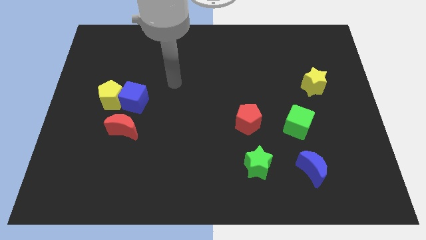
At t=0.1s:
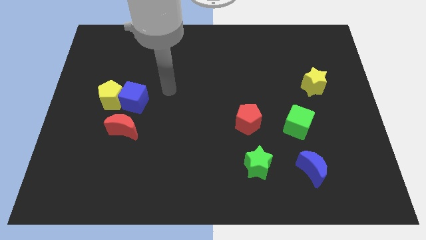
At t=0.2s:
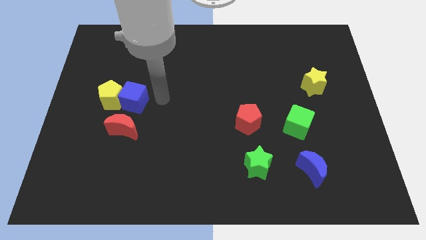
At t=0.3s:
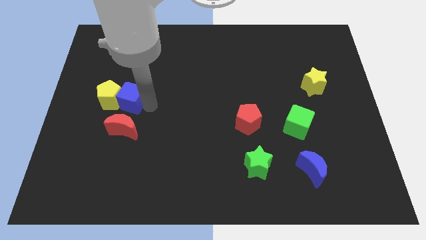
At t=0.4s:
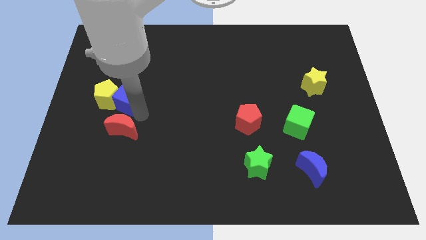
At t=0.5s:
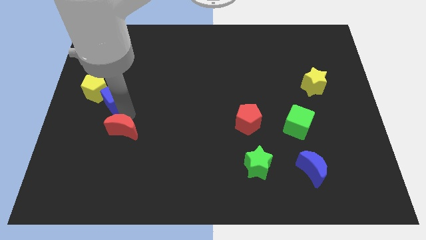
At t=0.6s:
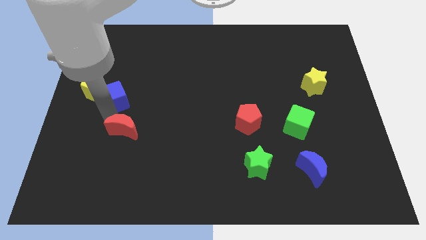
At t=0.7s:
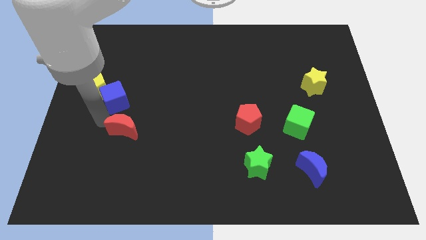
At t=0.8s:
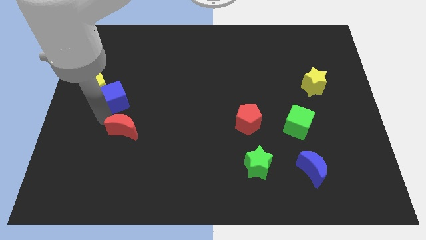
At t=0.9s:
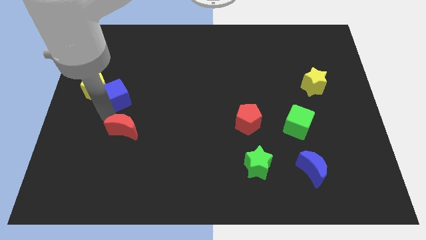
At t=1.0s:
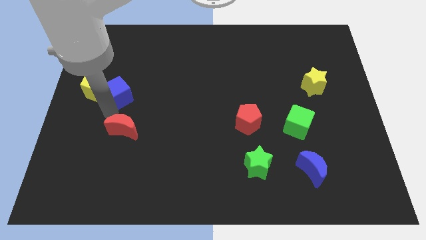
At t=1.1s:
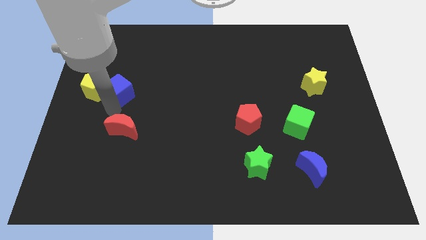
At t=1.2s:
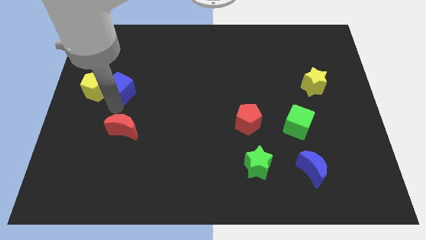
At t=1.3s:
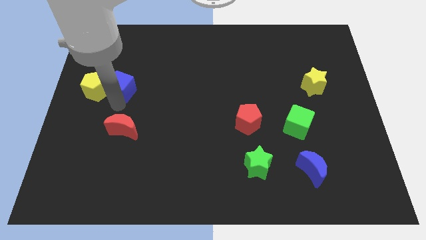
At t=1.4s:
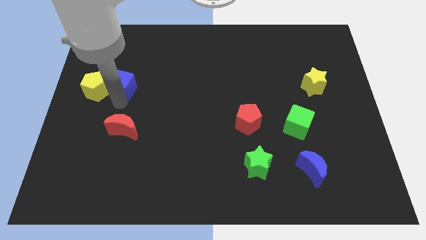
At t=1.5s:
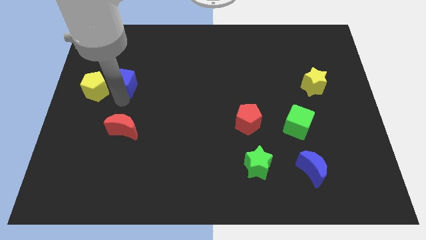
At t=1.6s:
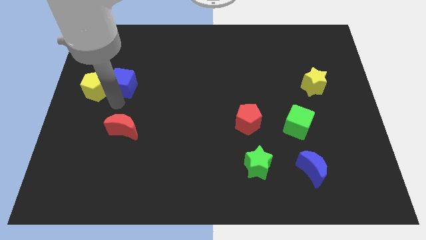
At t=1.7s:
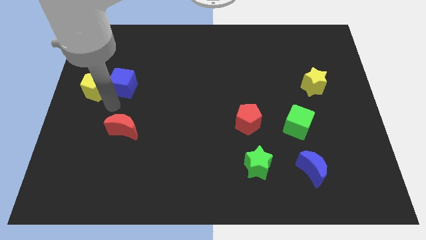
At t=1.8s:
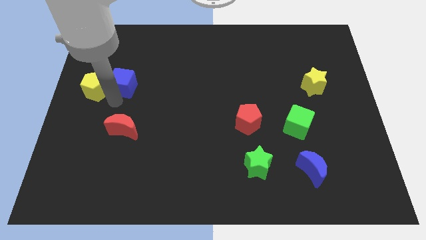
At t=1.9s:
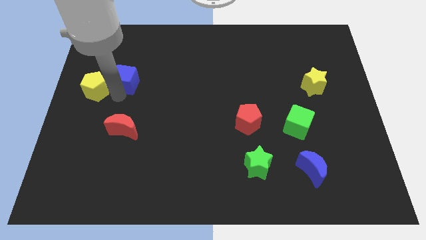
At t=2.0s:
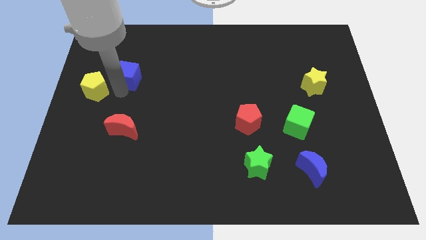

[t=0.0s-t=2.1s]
separate the blue cube from the yellow pentagon and red moon

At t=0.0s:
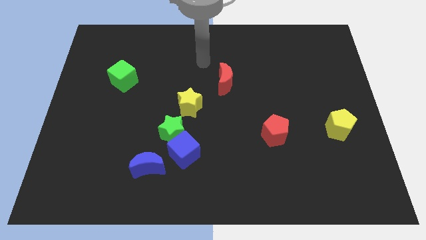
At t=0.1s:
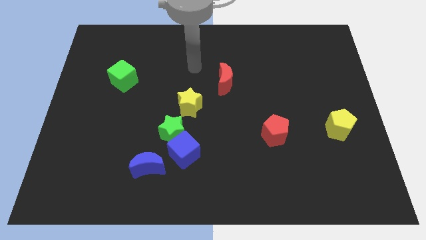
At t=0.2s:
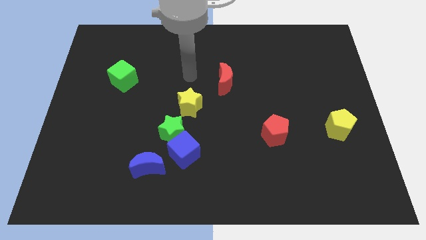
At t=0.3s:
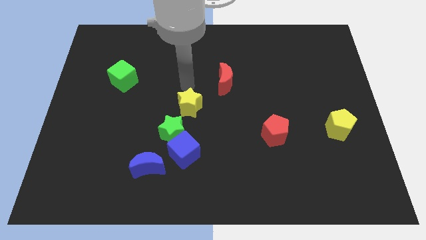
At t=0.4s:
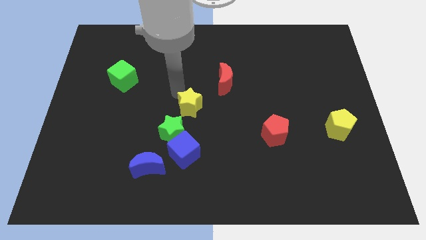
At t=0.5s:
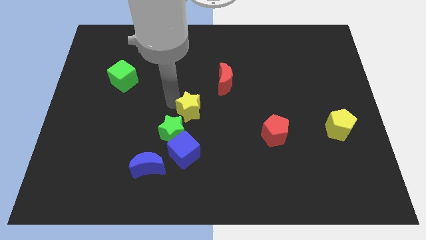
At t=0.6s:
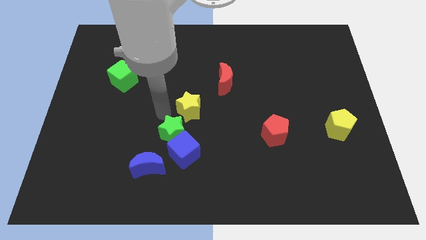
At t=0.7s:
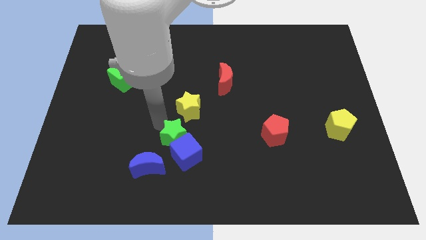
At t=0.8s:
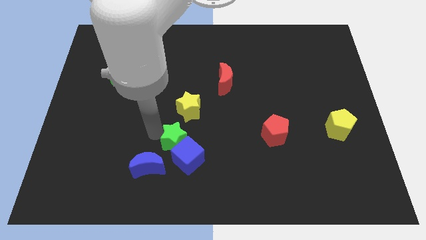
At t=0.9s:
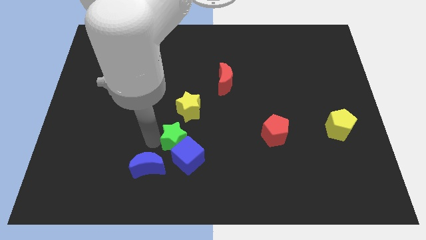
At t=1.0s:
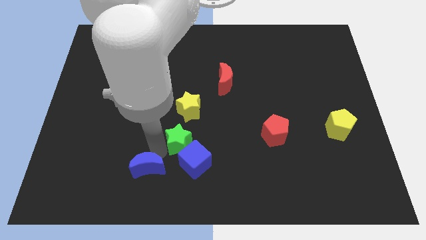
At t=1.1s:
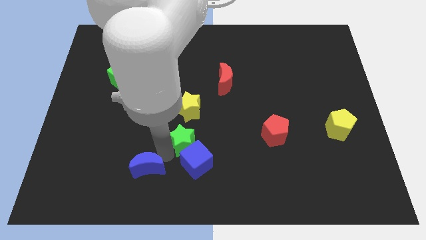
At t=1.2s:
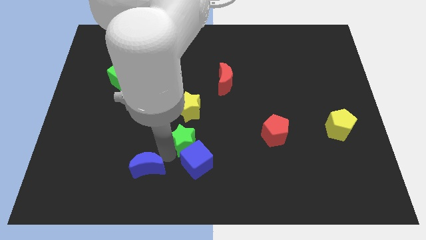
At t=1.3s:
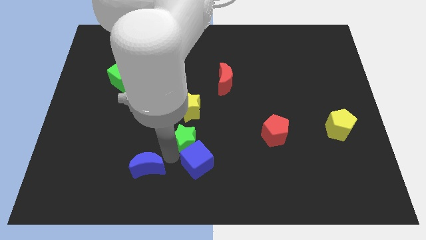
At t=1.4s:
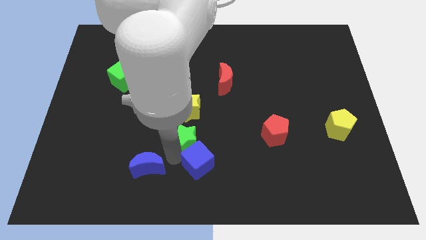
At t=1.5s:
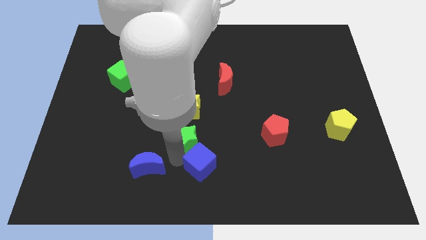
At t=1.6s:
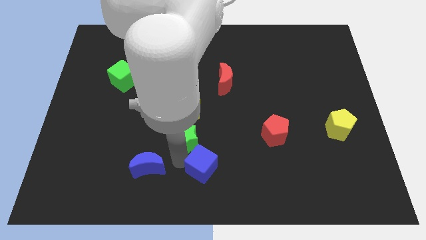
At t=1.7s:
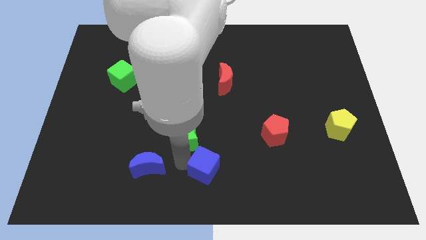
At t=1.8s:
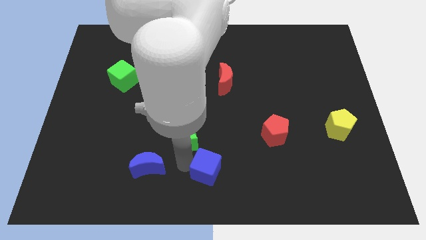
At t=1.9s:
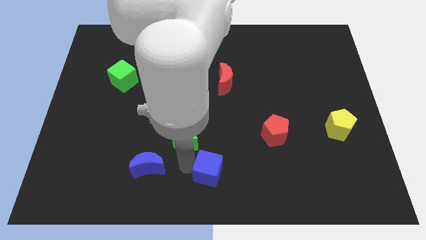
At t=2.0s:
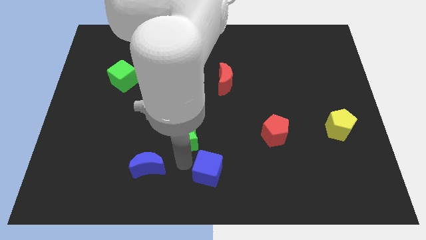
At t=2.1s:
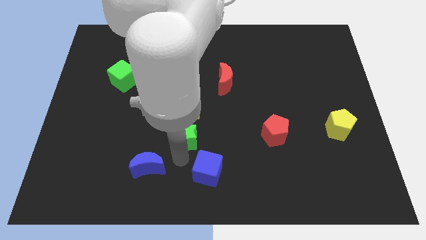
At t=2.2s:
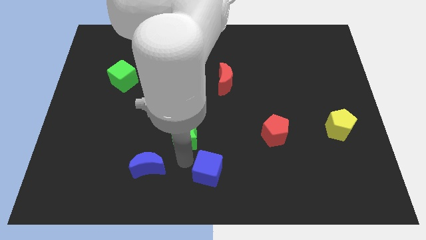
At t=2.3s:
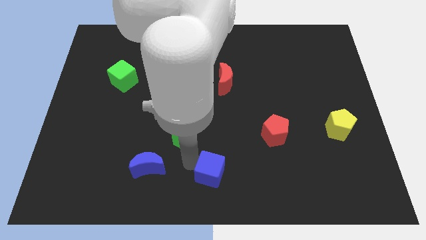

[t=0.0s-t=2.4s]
pull the blue cube apart from the green star and blue moon

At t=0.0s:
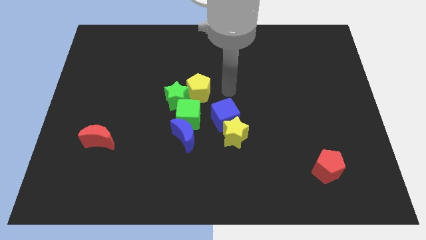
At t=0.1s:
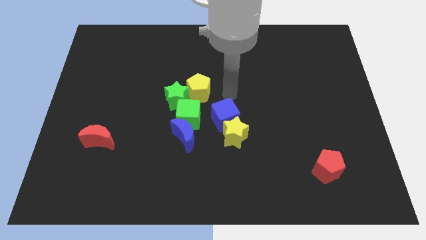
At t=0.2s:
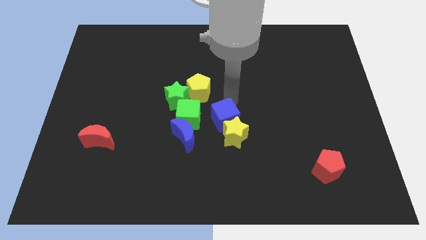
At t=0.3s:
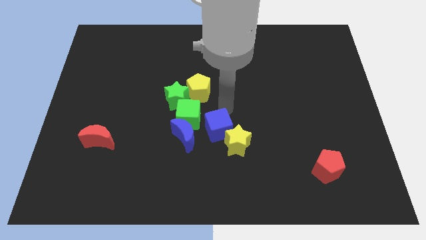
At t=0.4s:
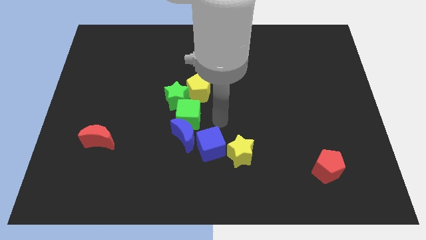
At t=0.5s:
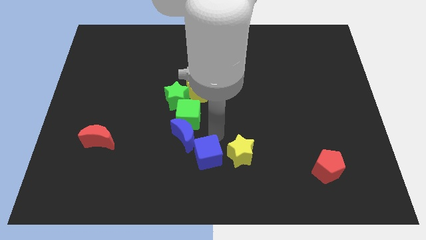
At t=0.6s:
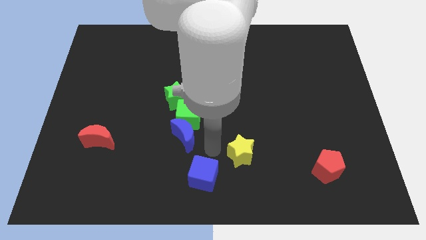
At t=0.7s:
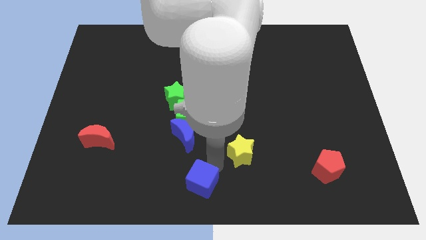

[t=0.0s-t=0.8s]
move the yellow star away from the blue cube

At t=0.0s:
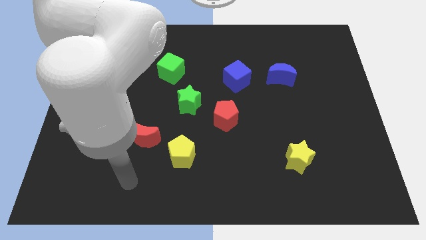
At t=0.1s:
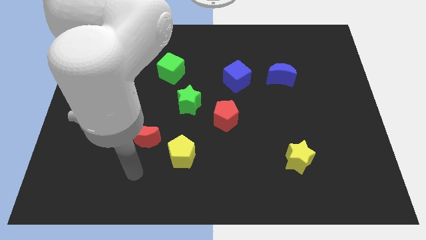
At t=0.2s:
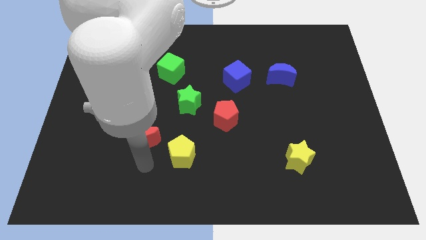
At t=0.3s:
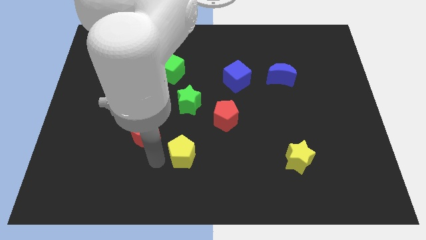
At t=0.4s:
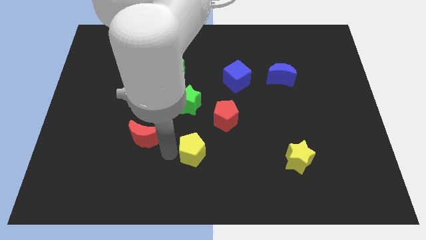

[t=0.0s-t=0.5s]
move the red moon away from the yellow pentagon

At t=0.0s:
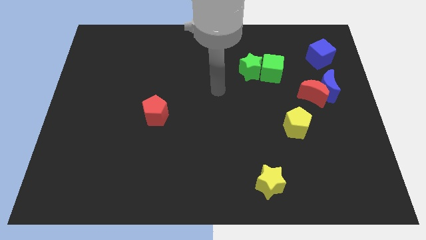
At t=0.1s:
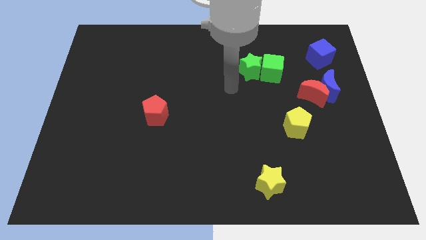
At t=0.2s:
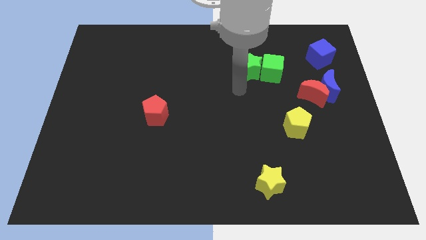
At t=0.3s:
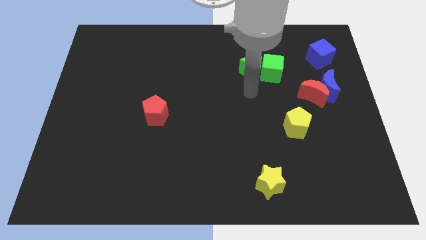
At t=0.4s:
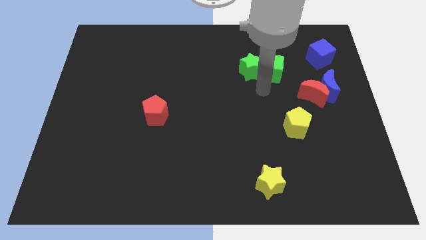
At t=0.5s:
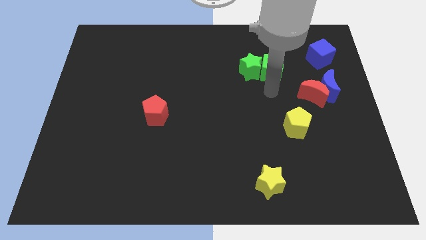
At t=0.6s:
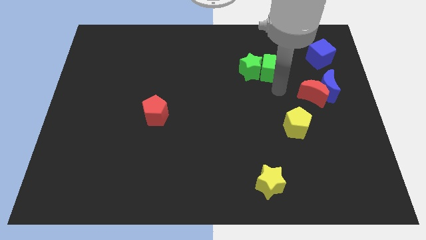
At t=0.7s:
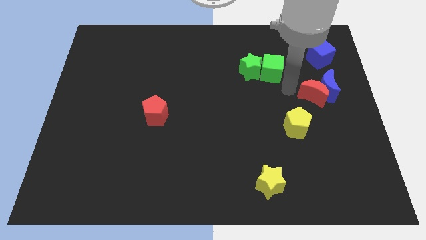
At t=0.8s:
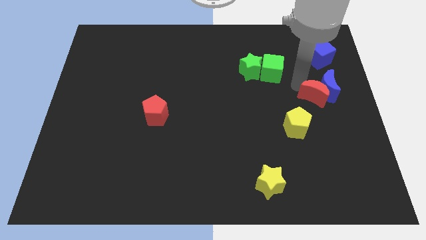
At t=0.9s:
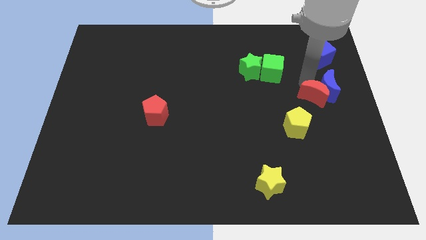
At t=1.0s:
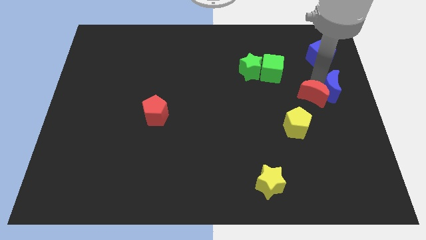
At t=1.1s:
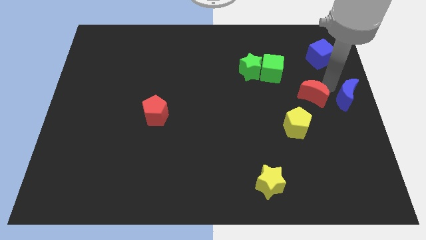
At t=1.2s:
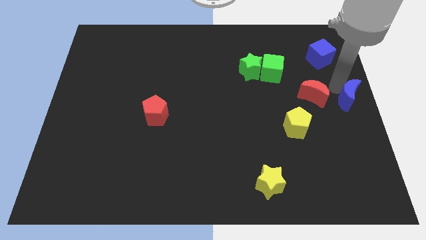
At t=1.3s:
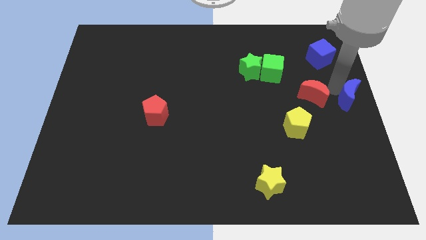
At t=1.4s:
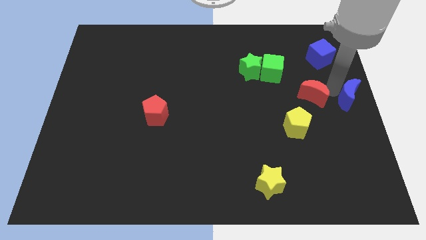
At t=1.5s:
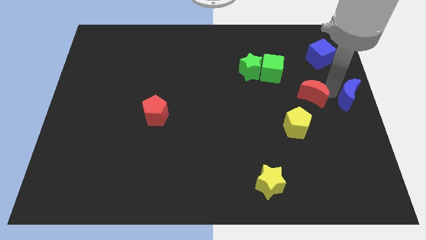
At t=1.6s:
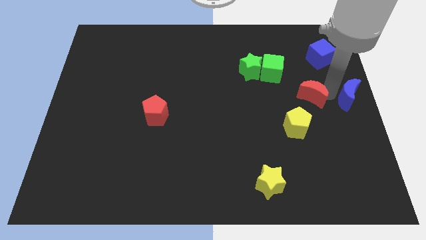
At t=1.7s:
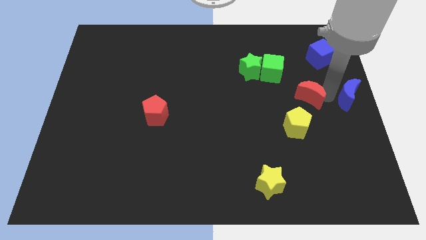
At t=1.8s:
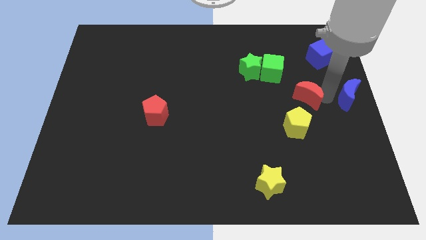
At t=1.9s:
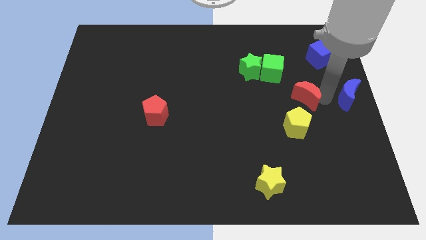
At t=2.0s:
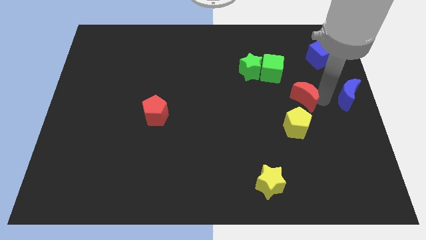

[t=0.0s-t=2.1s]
pull the red moon apart from the blue moon

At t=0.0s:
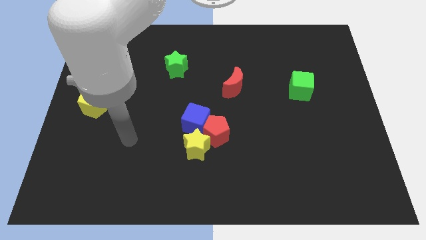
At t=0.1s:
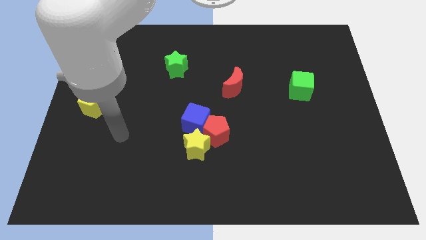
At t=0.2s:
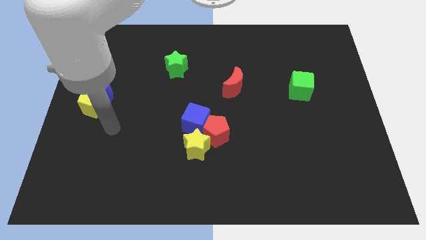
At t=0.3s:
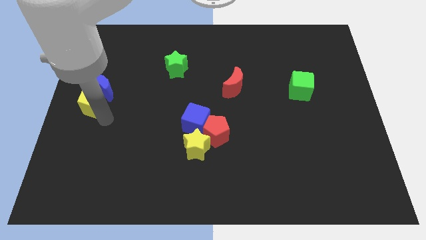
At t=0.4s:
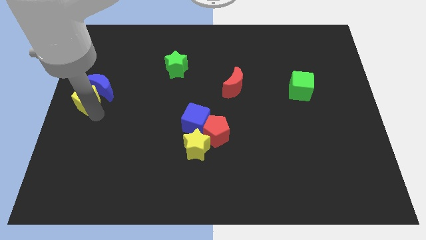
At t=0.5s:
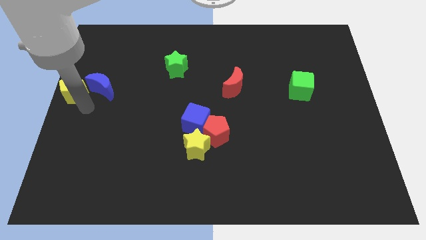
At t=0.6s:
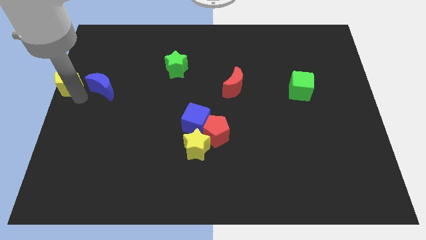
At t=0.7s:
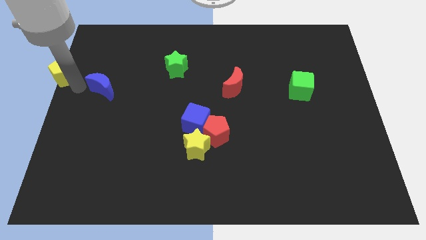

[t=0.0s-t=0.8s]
move the blue moon away from the yellow pentagon

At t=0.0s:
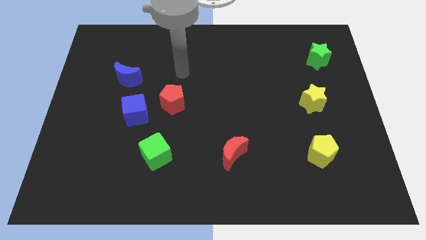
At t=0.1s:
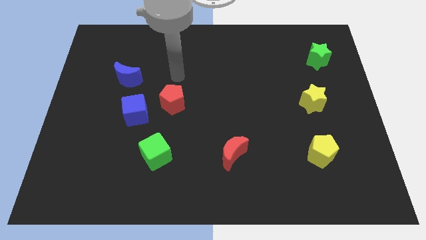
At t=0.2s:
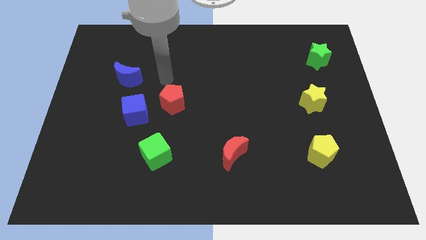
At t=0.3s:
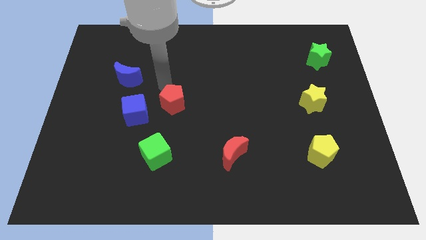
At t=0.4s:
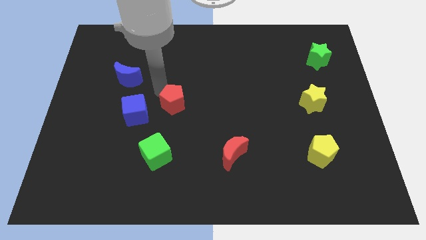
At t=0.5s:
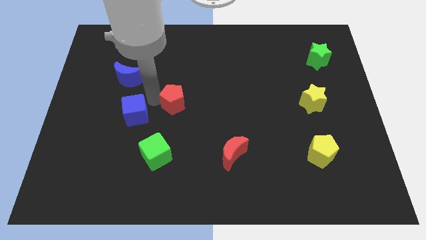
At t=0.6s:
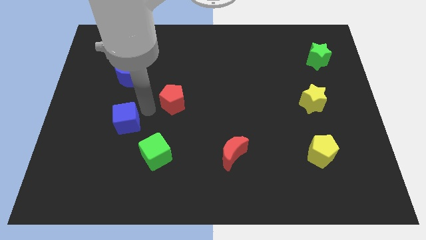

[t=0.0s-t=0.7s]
pull the red pentagon apart from the blue cube
